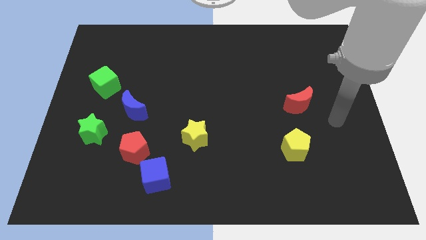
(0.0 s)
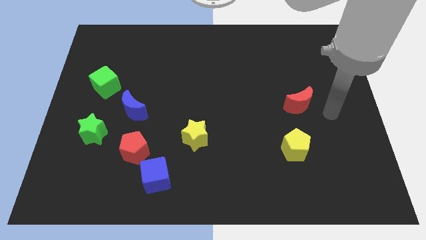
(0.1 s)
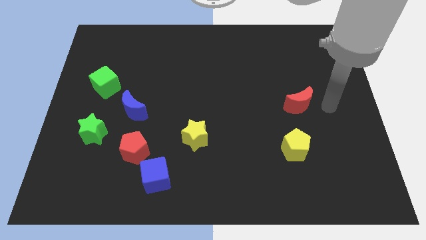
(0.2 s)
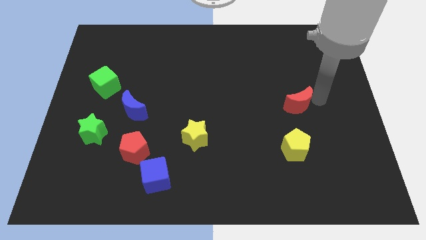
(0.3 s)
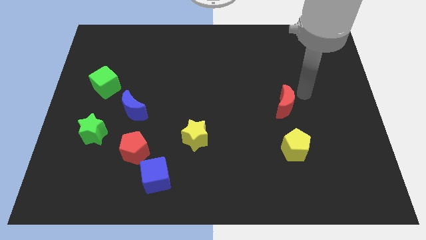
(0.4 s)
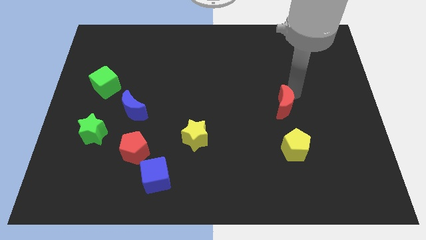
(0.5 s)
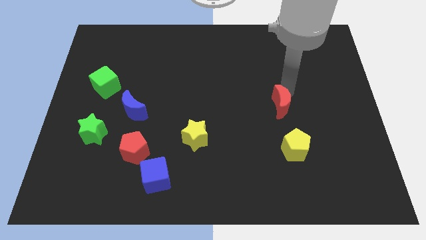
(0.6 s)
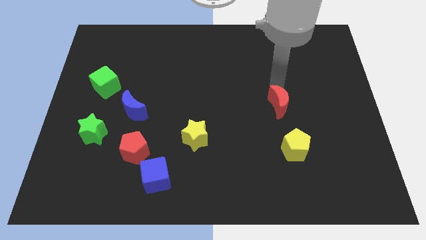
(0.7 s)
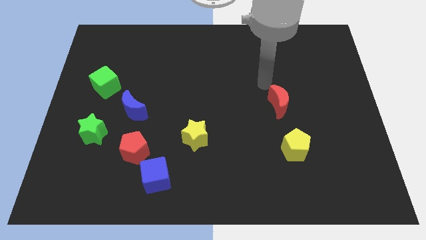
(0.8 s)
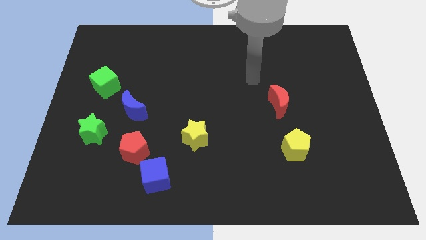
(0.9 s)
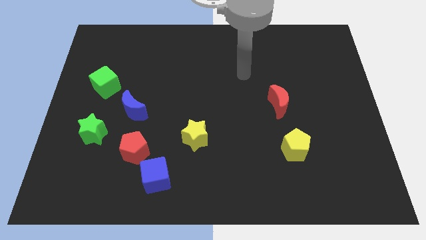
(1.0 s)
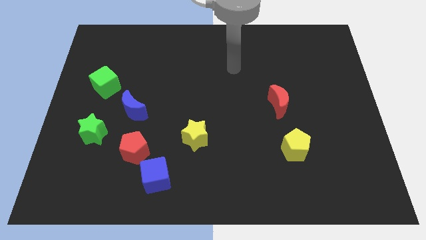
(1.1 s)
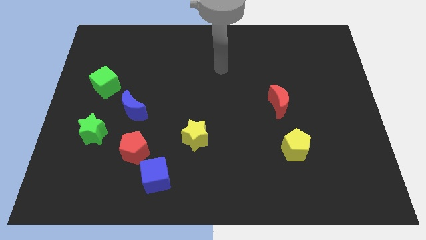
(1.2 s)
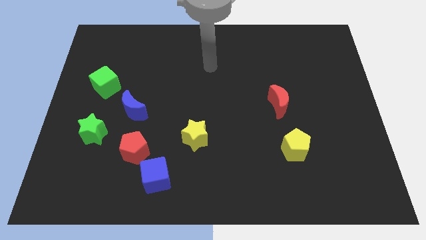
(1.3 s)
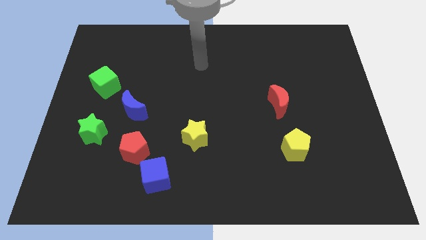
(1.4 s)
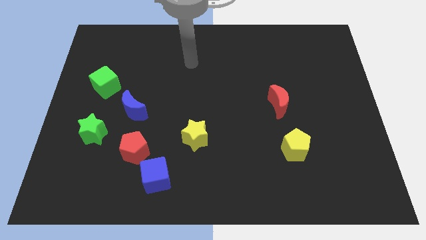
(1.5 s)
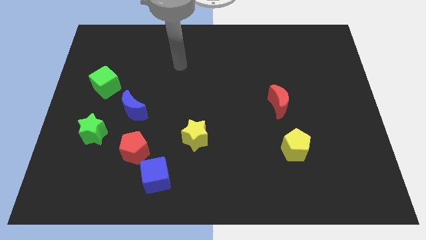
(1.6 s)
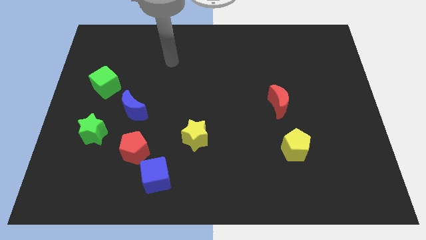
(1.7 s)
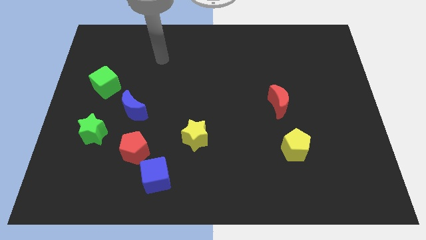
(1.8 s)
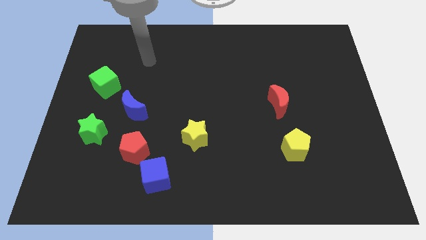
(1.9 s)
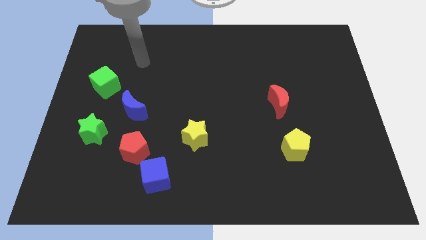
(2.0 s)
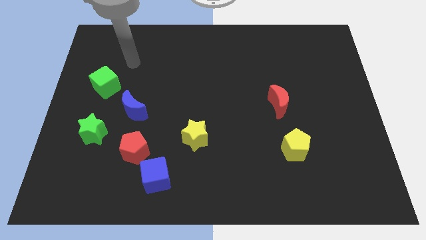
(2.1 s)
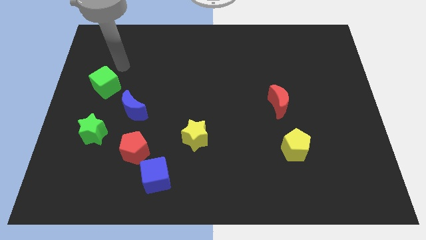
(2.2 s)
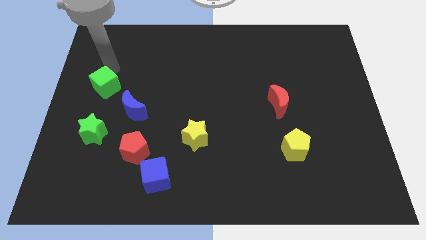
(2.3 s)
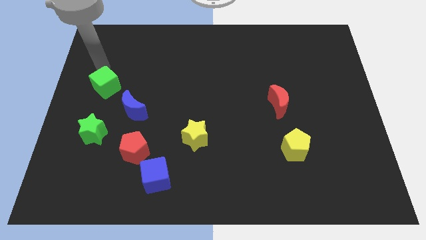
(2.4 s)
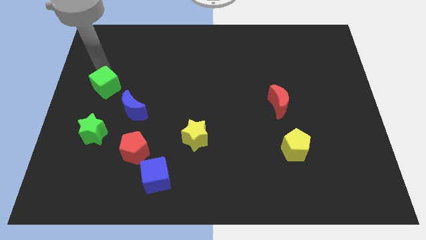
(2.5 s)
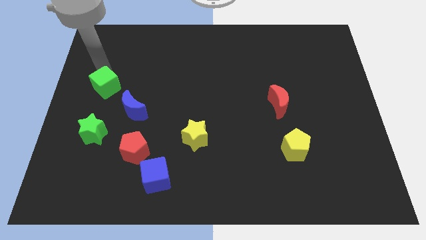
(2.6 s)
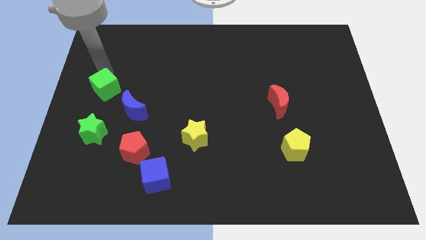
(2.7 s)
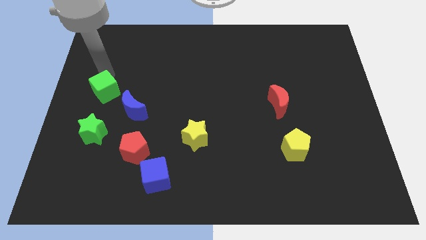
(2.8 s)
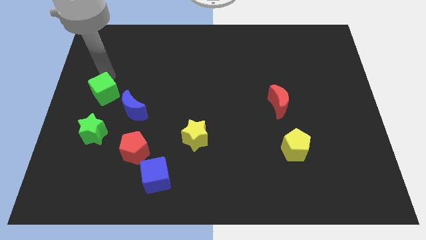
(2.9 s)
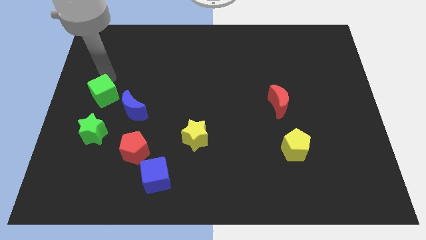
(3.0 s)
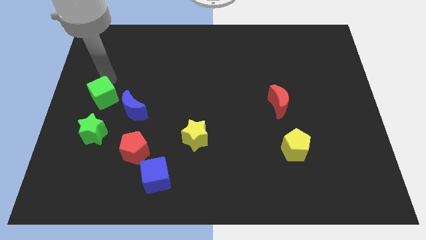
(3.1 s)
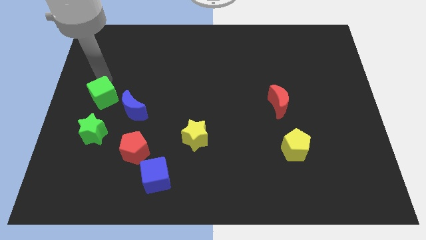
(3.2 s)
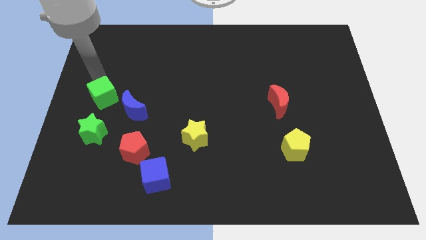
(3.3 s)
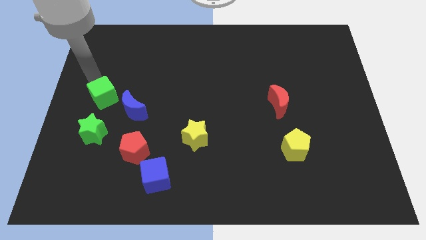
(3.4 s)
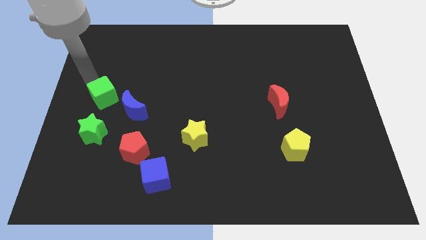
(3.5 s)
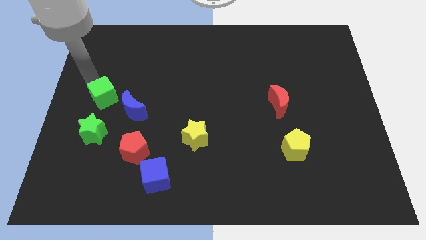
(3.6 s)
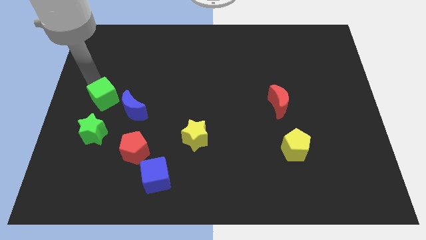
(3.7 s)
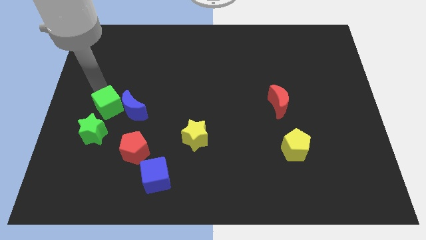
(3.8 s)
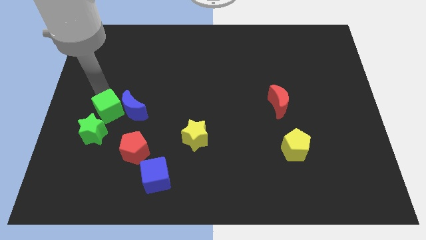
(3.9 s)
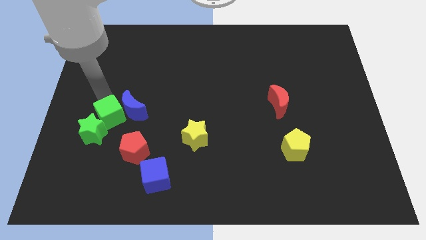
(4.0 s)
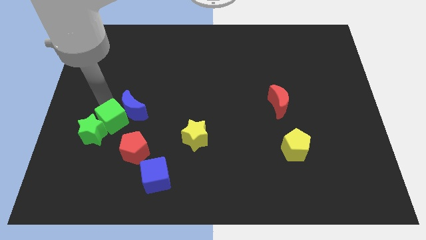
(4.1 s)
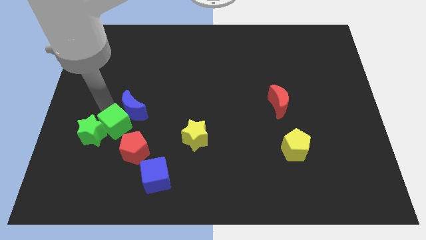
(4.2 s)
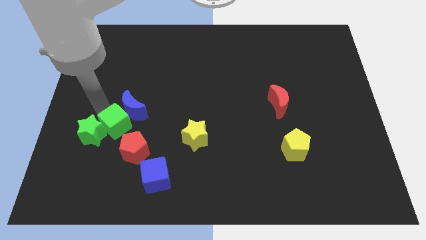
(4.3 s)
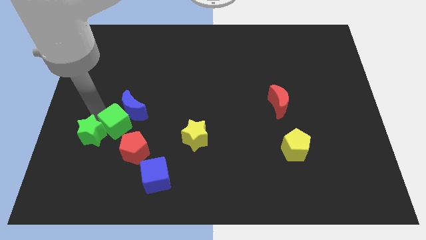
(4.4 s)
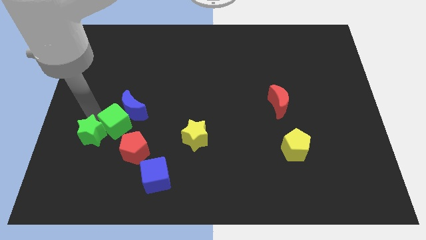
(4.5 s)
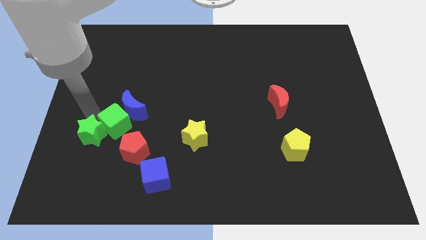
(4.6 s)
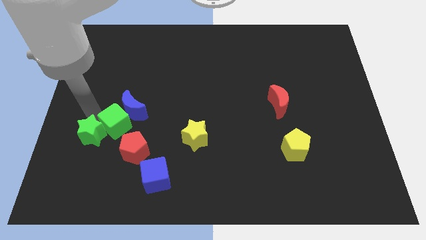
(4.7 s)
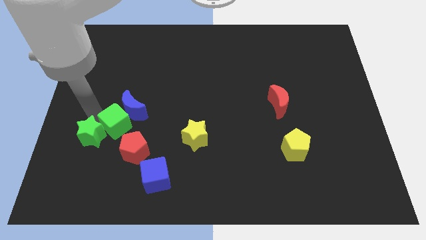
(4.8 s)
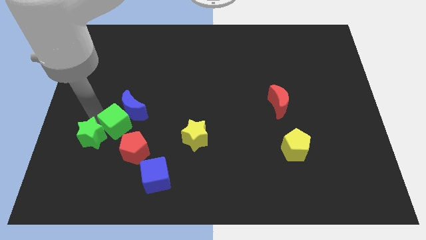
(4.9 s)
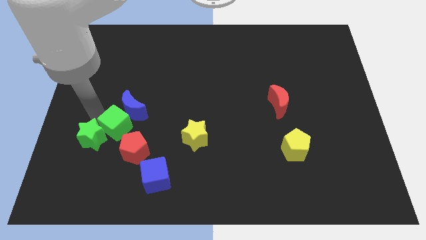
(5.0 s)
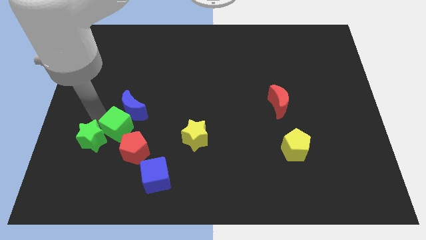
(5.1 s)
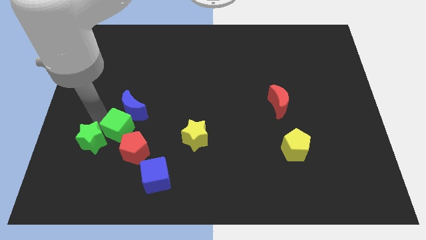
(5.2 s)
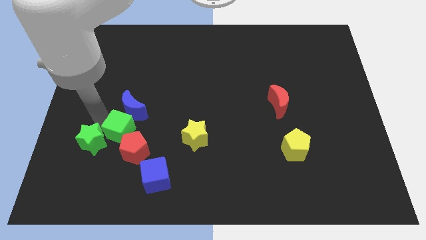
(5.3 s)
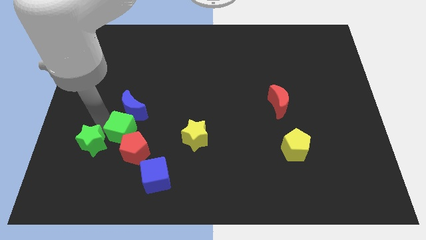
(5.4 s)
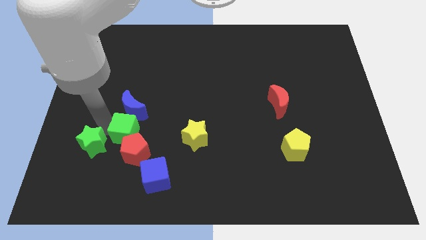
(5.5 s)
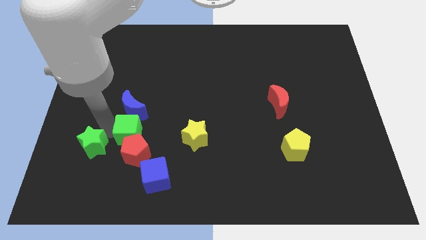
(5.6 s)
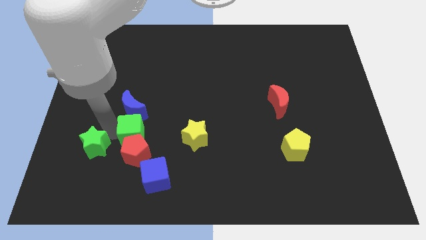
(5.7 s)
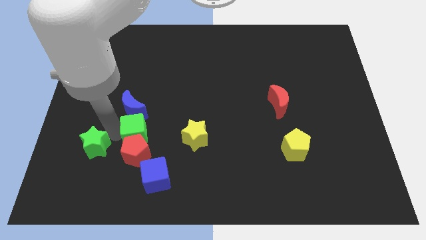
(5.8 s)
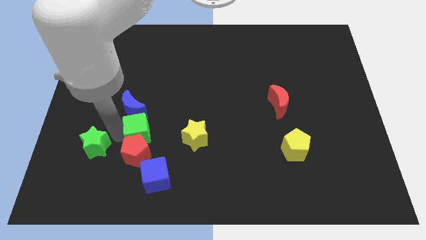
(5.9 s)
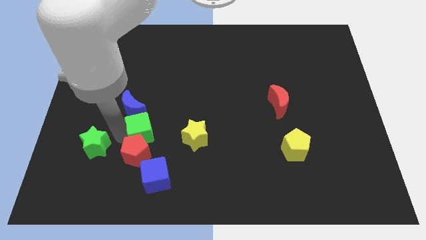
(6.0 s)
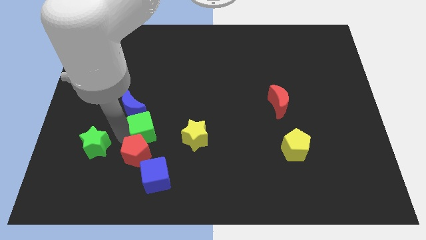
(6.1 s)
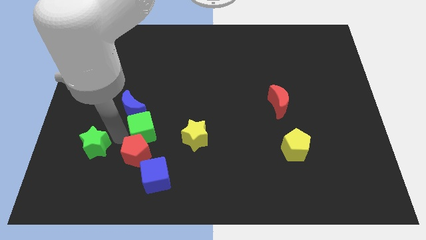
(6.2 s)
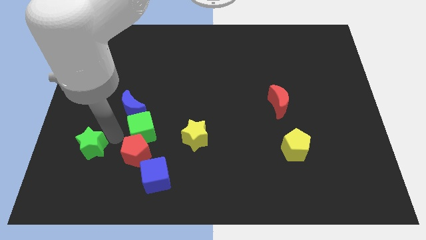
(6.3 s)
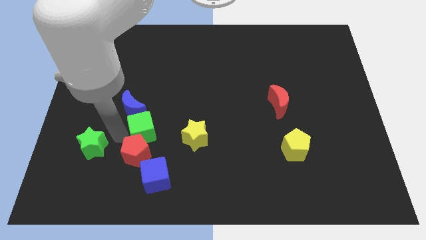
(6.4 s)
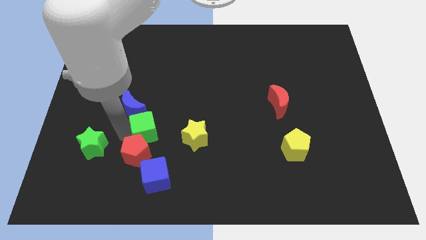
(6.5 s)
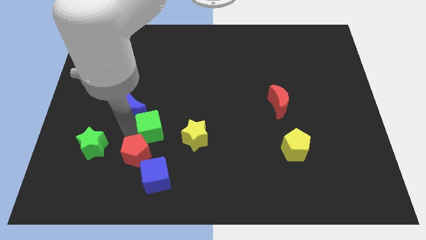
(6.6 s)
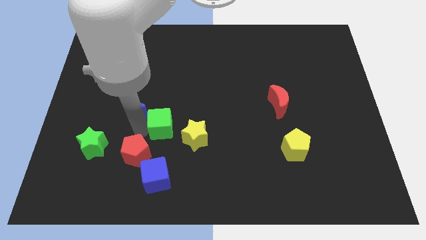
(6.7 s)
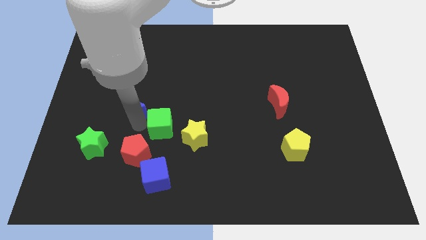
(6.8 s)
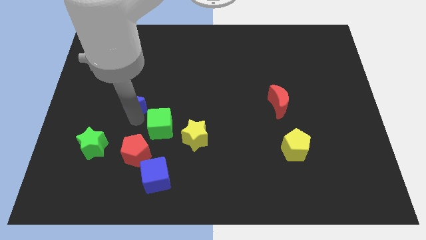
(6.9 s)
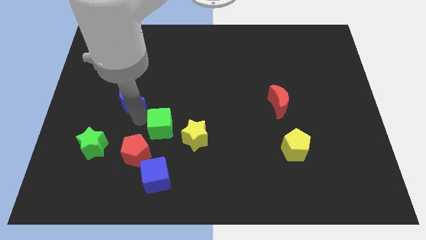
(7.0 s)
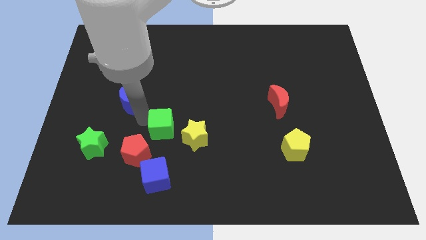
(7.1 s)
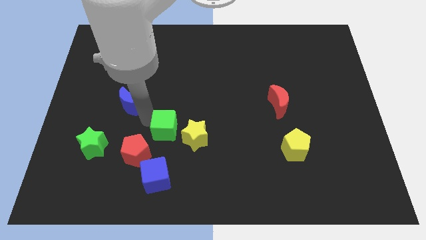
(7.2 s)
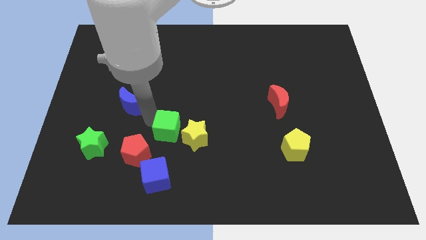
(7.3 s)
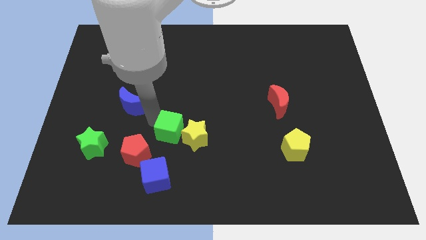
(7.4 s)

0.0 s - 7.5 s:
move the green cube to the yellow star
